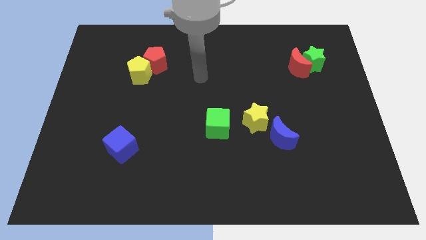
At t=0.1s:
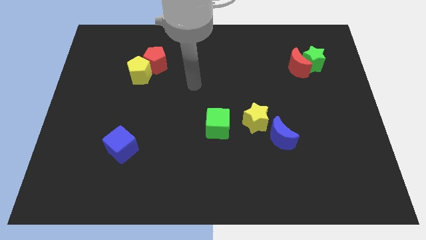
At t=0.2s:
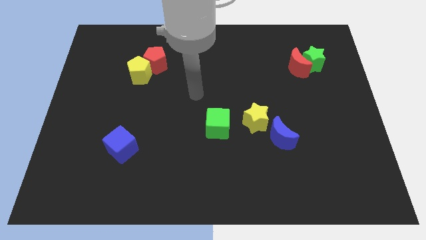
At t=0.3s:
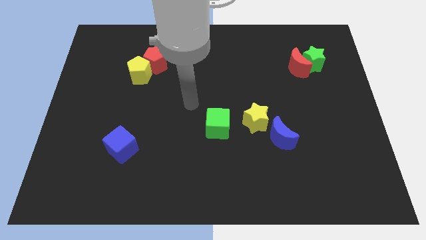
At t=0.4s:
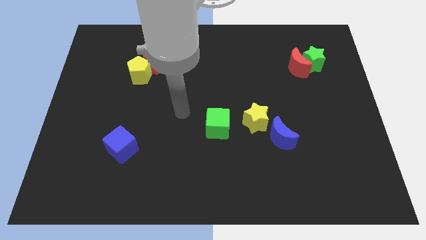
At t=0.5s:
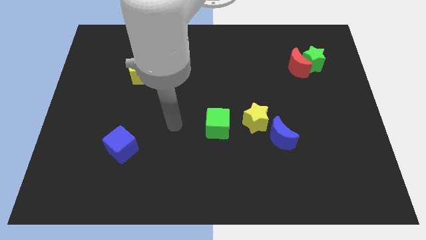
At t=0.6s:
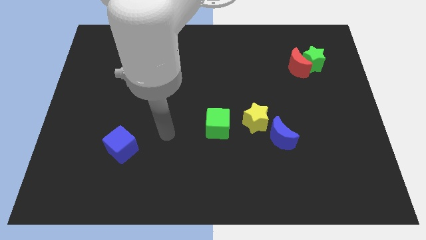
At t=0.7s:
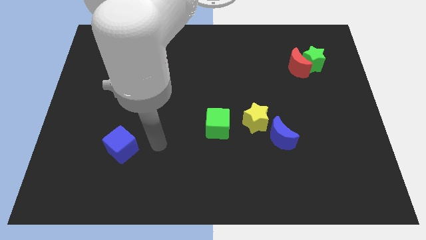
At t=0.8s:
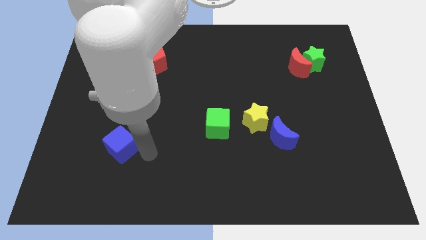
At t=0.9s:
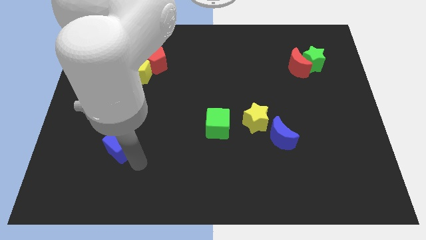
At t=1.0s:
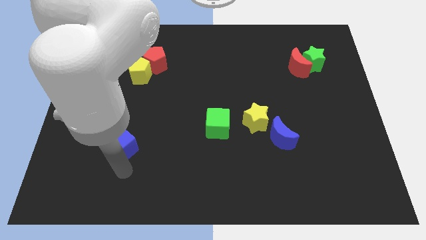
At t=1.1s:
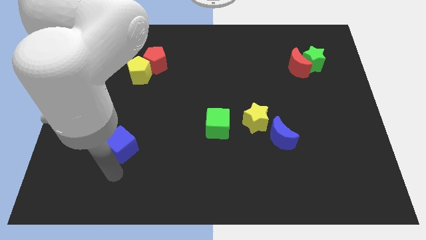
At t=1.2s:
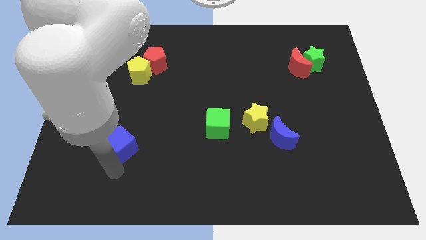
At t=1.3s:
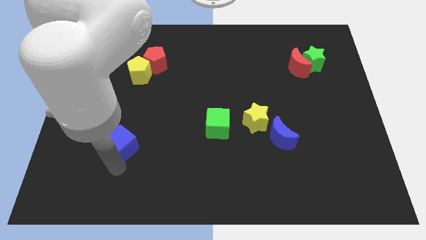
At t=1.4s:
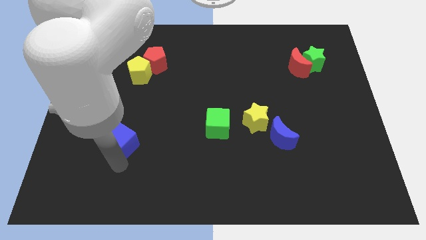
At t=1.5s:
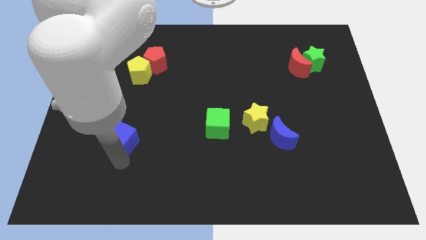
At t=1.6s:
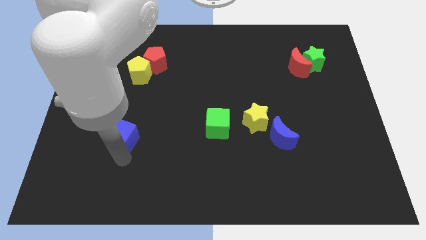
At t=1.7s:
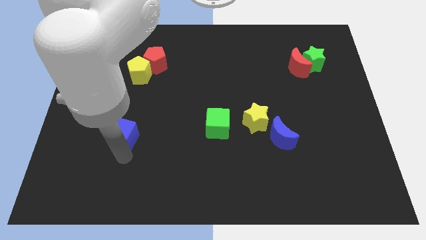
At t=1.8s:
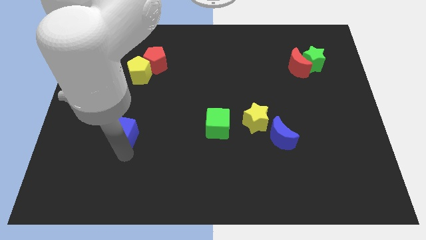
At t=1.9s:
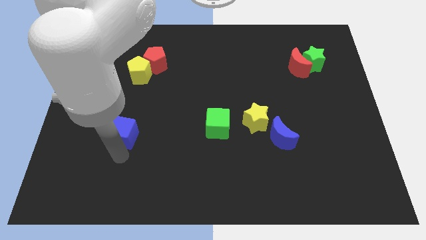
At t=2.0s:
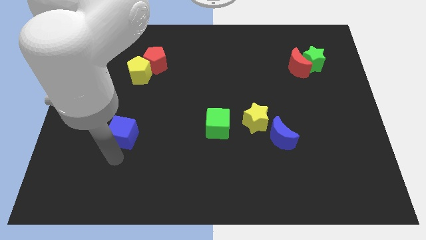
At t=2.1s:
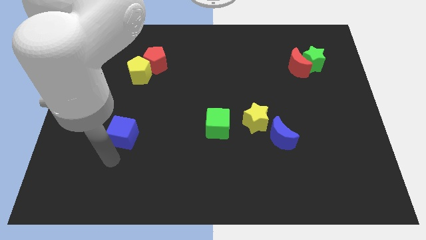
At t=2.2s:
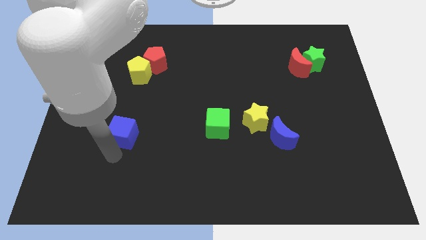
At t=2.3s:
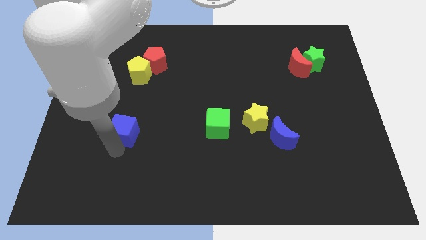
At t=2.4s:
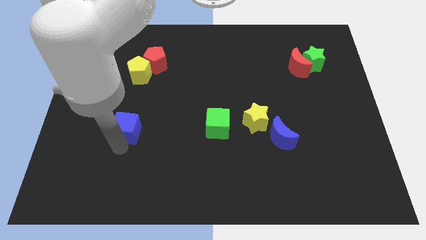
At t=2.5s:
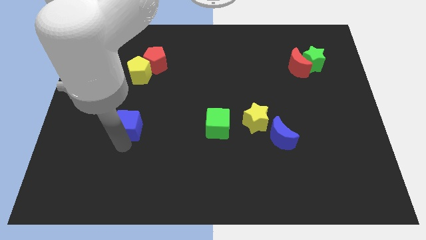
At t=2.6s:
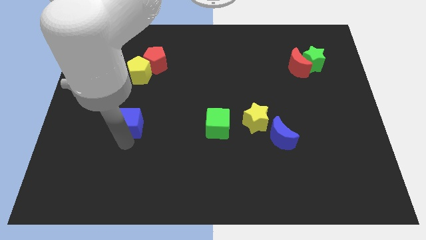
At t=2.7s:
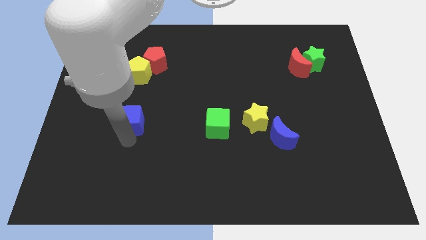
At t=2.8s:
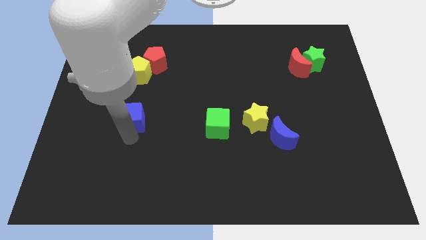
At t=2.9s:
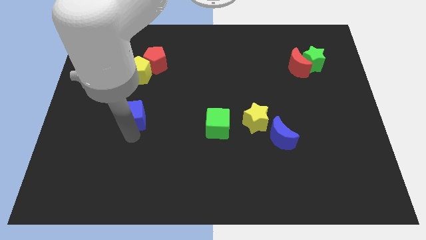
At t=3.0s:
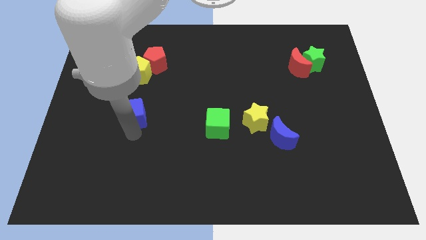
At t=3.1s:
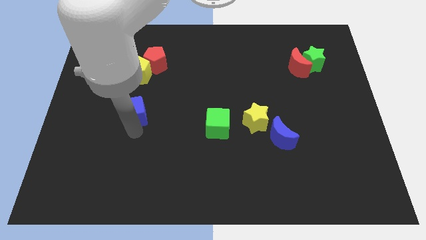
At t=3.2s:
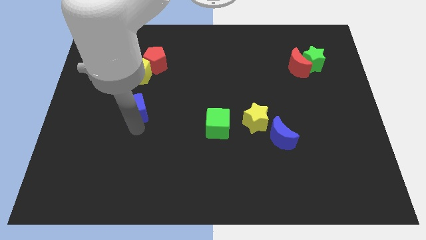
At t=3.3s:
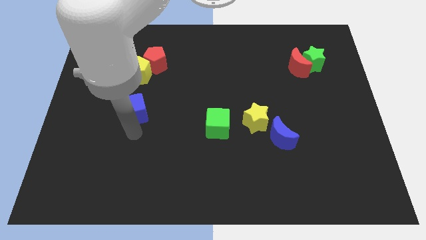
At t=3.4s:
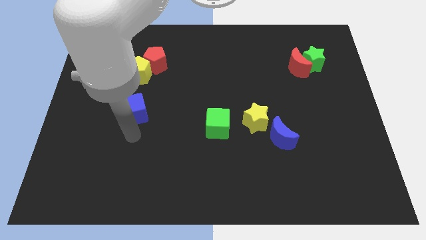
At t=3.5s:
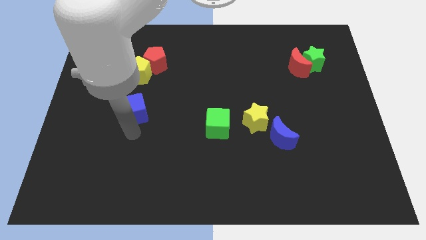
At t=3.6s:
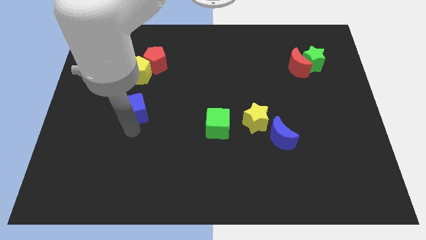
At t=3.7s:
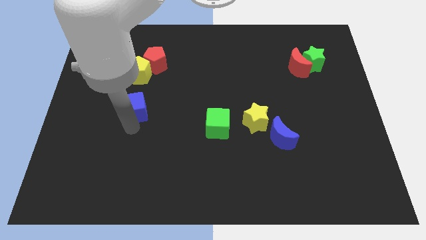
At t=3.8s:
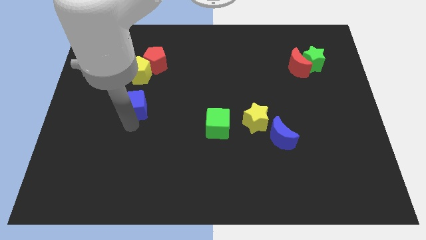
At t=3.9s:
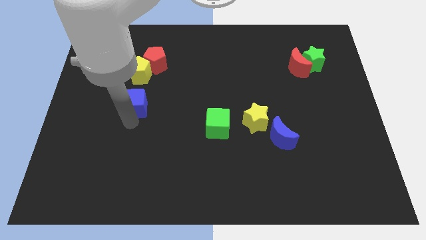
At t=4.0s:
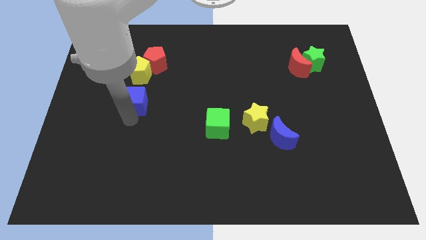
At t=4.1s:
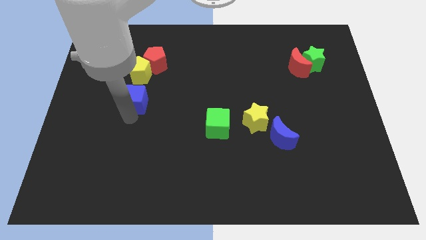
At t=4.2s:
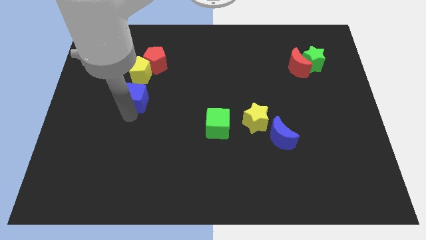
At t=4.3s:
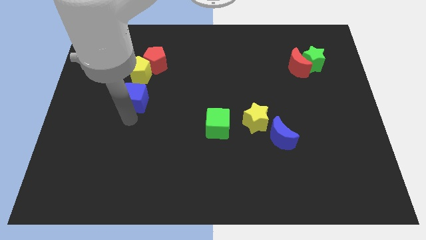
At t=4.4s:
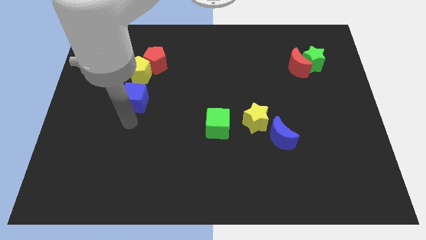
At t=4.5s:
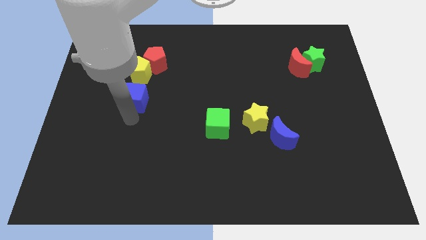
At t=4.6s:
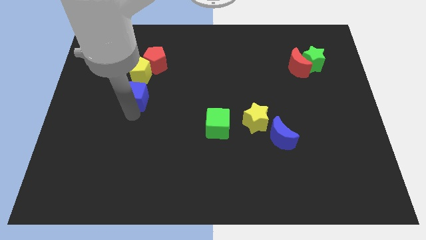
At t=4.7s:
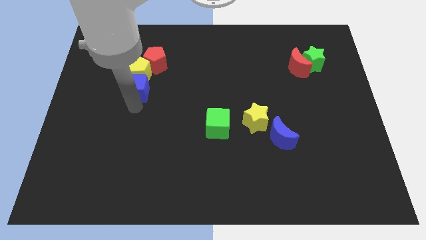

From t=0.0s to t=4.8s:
push the blue cube towards the yellow pentagon

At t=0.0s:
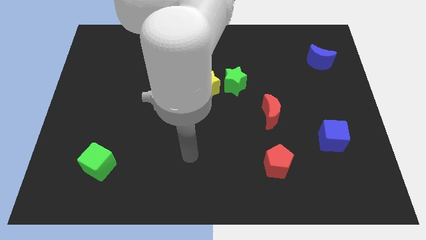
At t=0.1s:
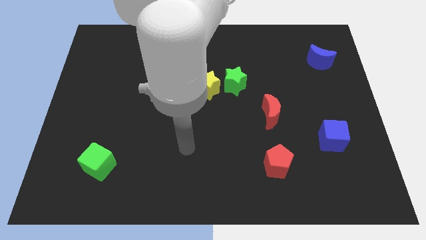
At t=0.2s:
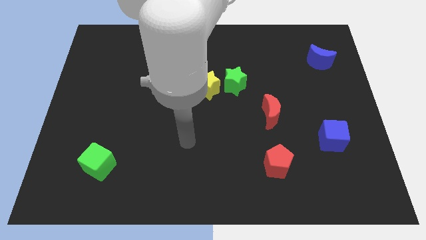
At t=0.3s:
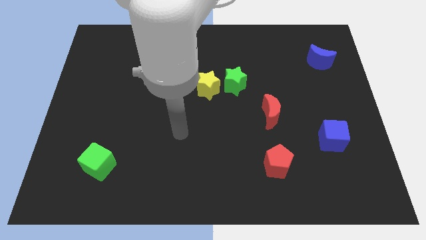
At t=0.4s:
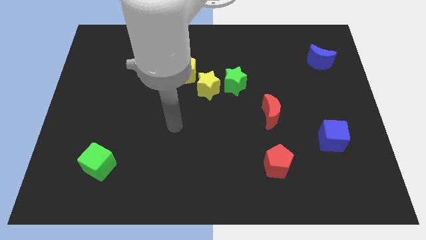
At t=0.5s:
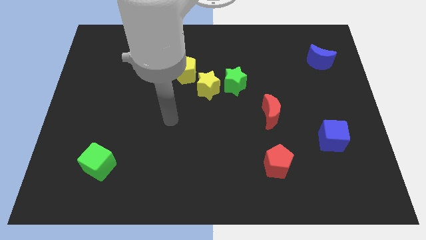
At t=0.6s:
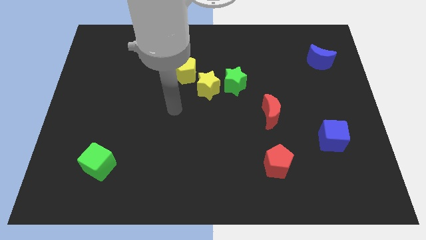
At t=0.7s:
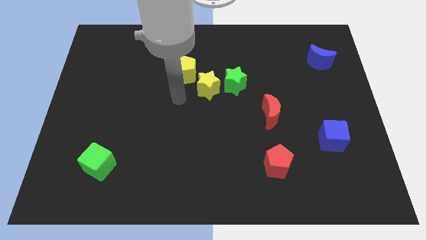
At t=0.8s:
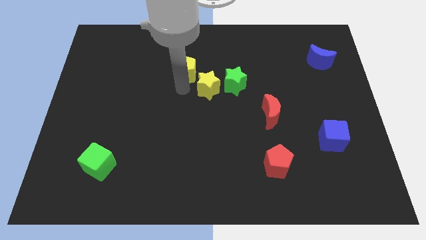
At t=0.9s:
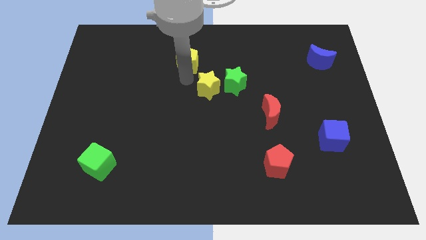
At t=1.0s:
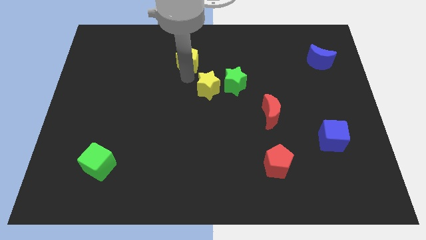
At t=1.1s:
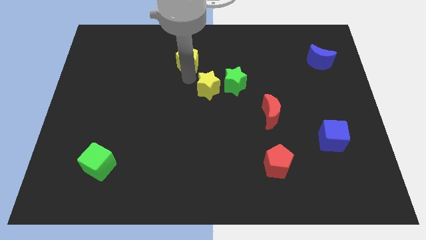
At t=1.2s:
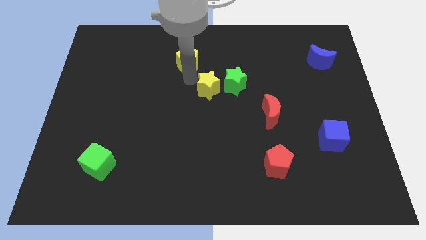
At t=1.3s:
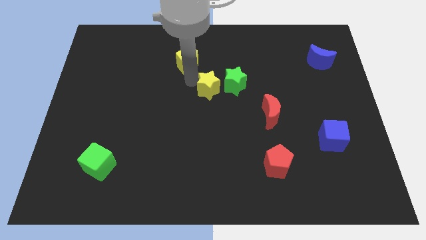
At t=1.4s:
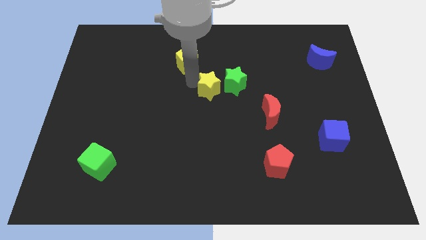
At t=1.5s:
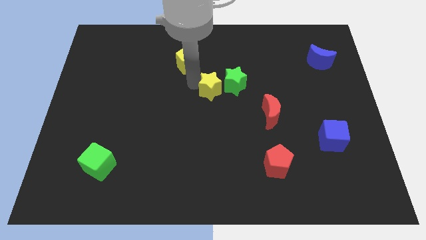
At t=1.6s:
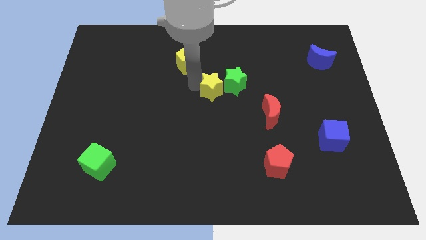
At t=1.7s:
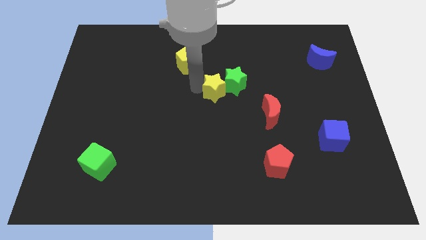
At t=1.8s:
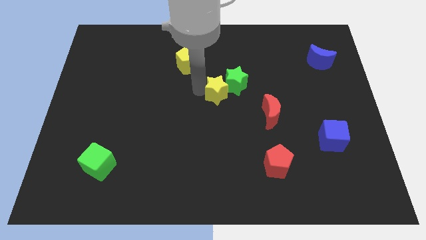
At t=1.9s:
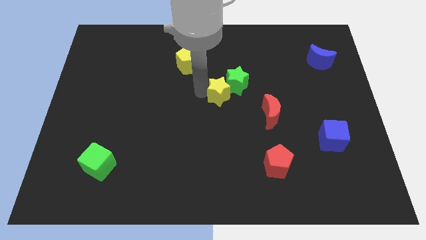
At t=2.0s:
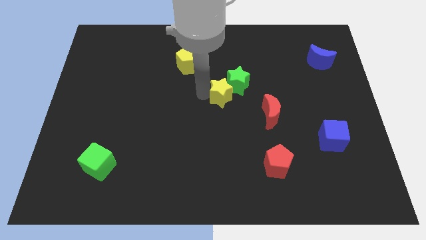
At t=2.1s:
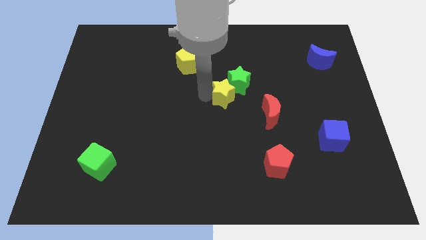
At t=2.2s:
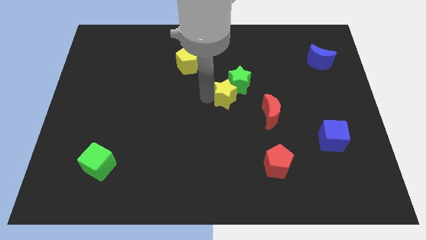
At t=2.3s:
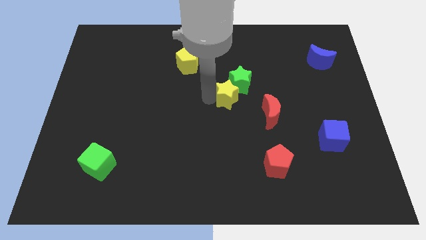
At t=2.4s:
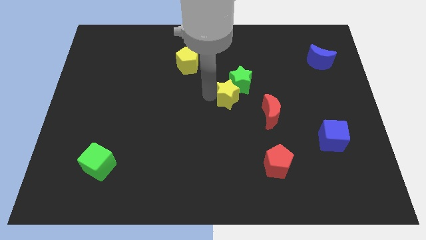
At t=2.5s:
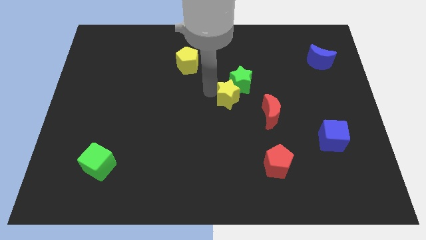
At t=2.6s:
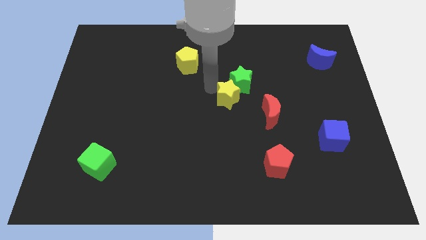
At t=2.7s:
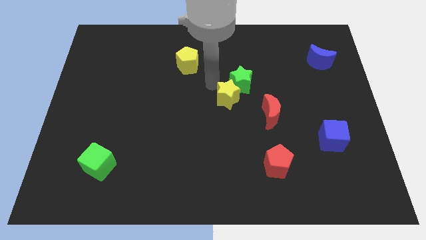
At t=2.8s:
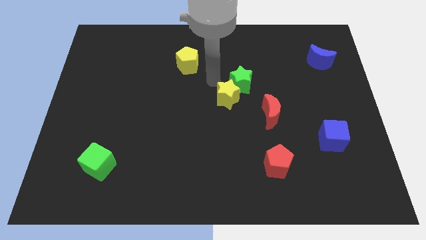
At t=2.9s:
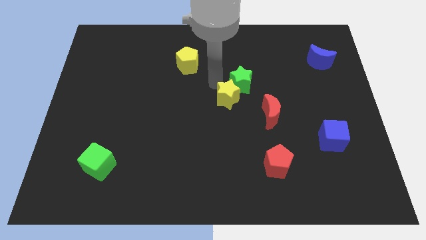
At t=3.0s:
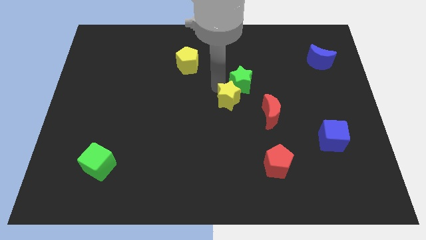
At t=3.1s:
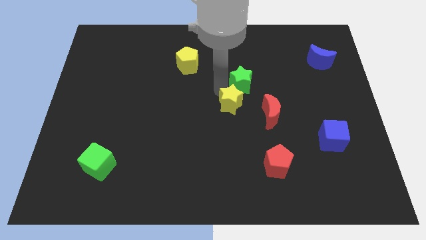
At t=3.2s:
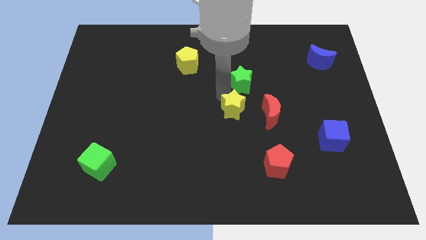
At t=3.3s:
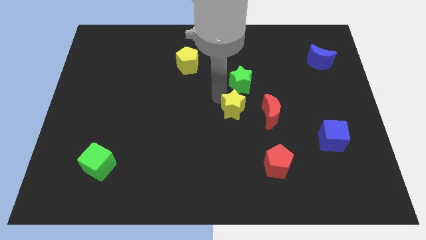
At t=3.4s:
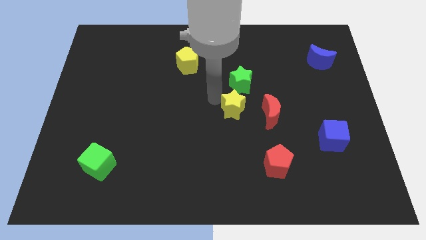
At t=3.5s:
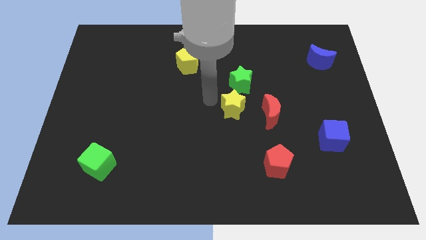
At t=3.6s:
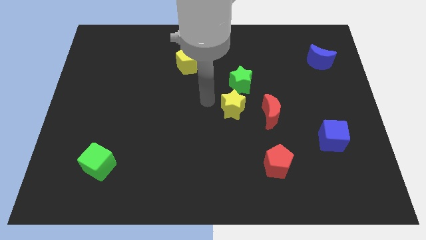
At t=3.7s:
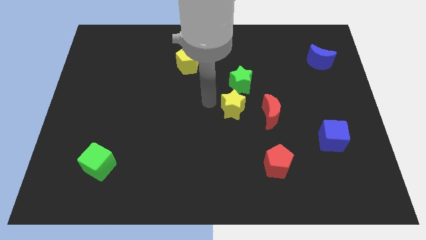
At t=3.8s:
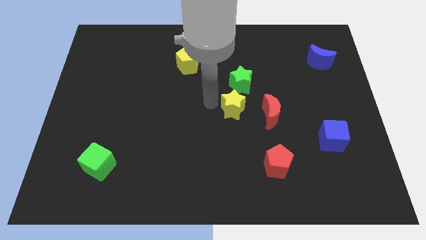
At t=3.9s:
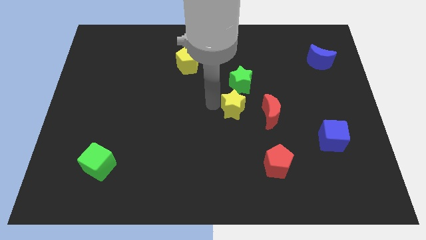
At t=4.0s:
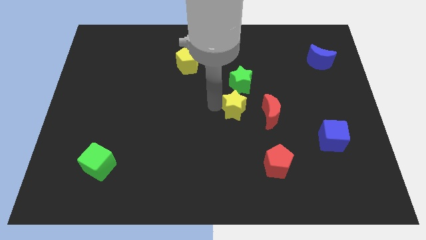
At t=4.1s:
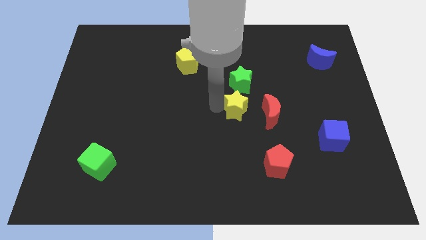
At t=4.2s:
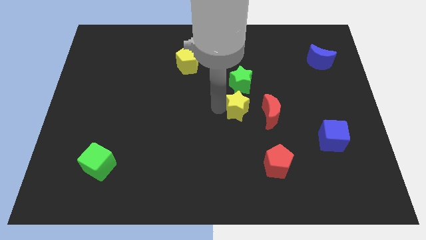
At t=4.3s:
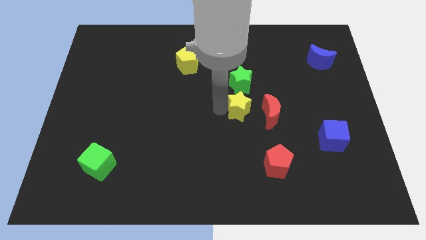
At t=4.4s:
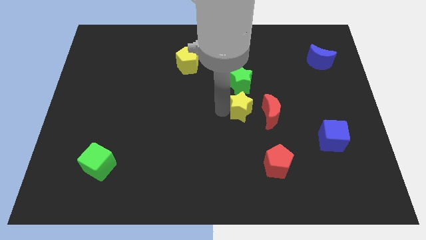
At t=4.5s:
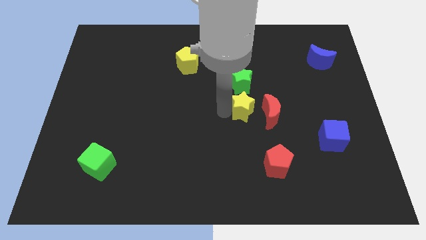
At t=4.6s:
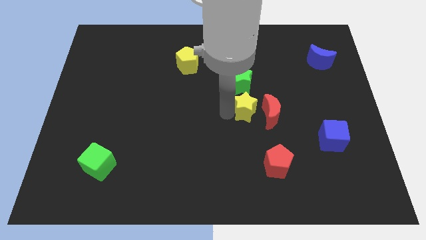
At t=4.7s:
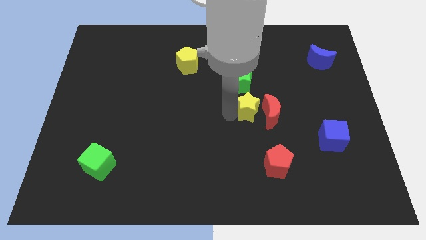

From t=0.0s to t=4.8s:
slide the yellow star close to the red moon
